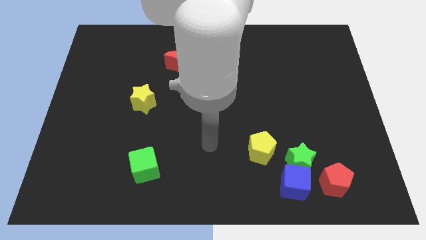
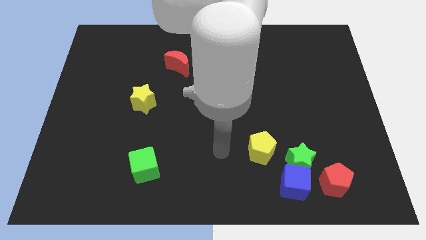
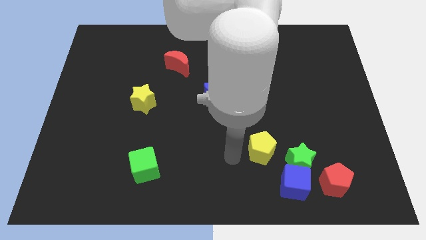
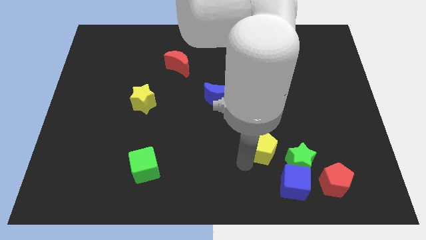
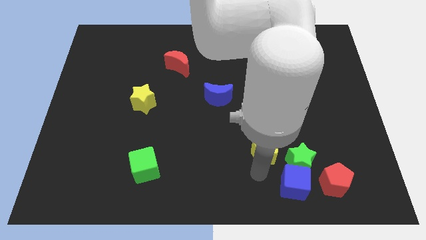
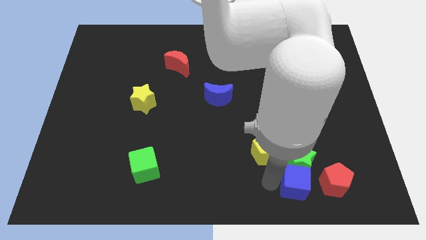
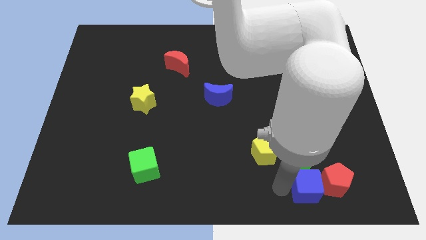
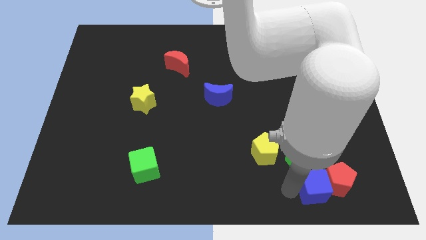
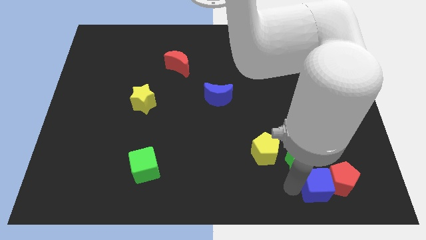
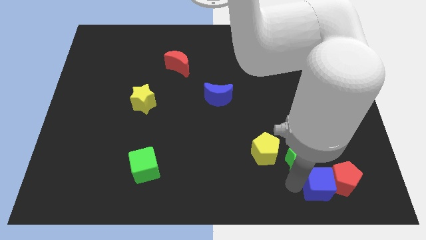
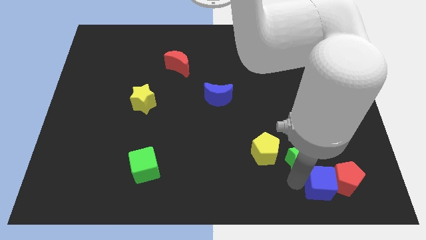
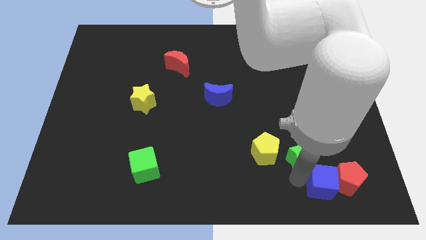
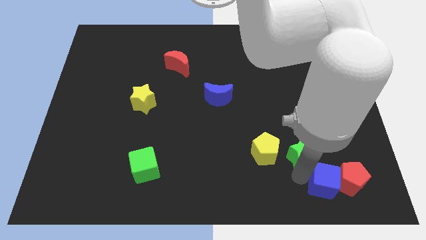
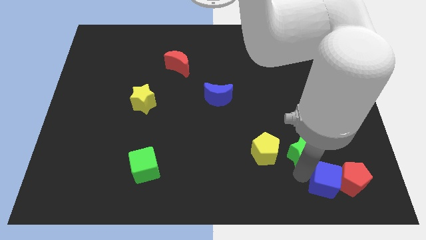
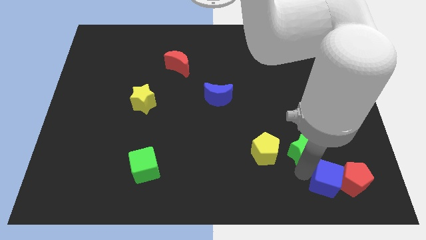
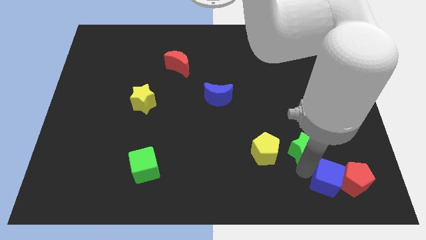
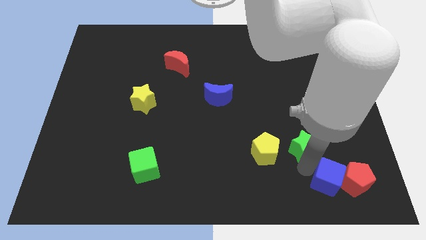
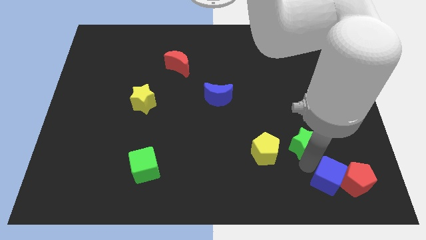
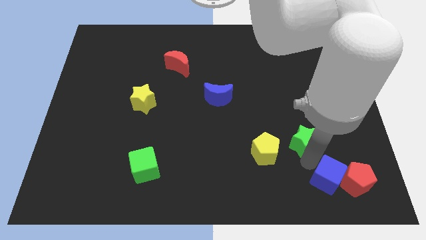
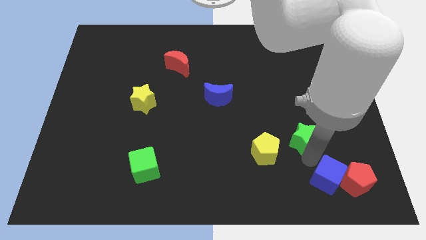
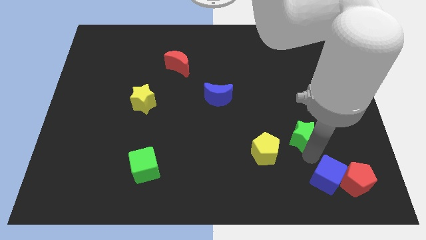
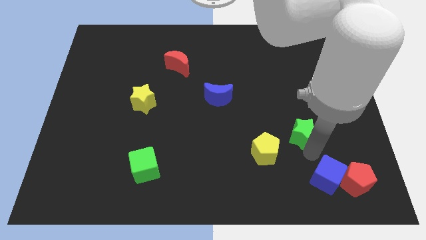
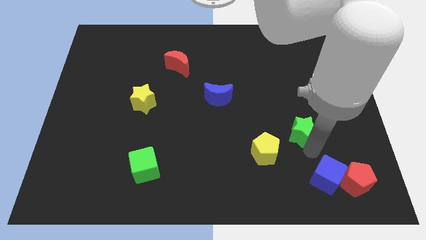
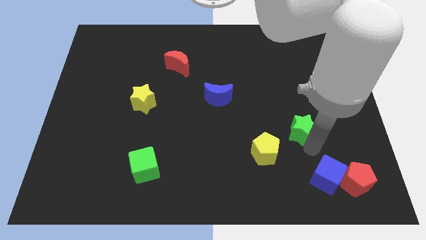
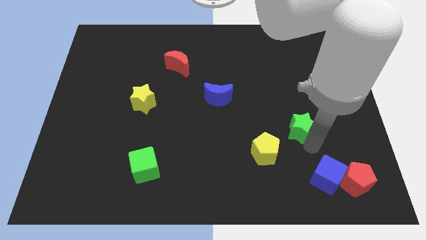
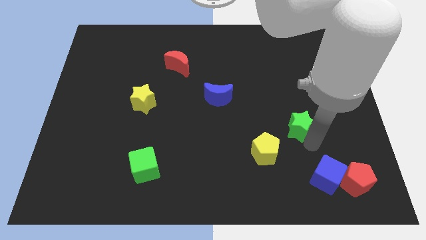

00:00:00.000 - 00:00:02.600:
separate the green star from the blue cube, red pentagon, and yellow pentagon

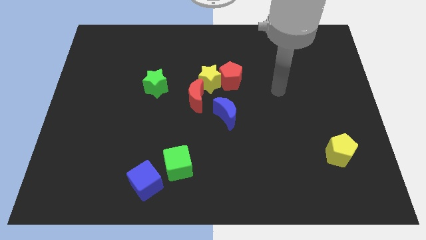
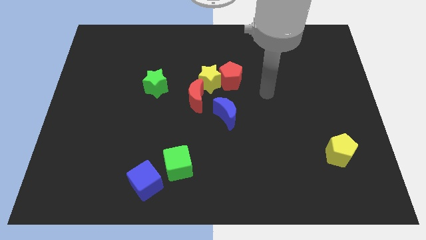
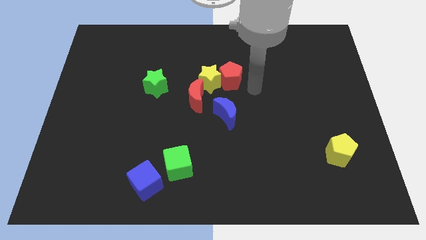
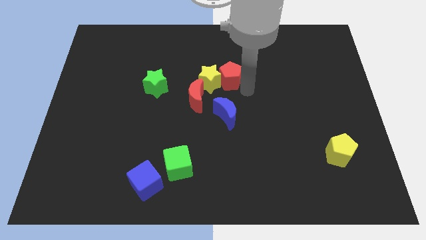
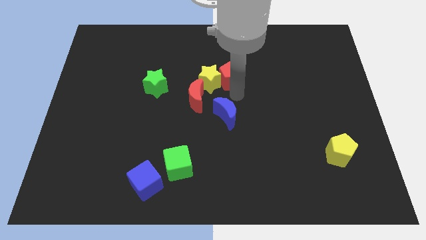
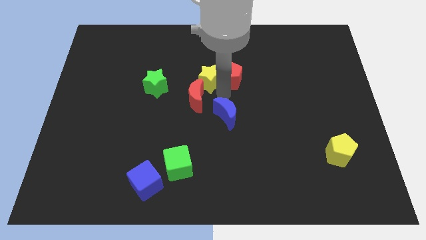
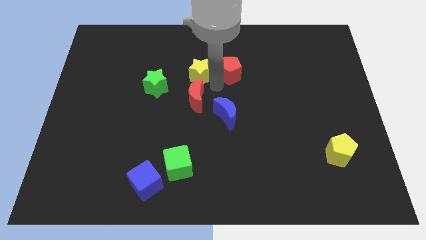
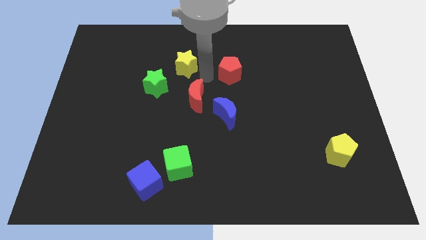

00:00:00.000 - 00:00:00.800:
move the red pentagon away from the yellow star

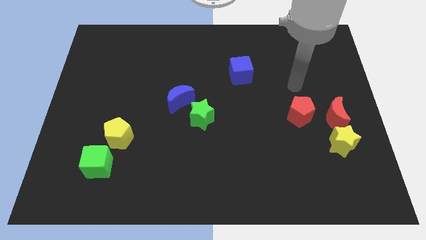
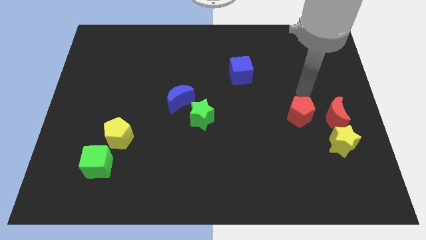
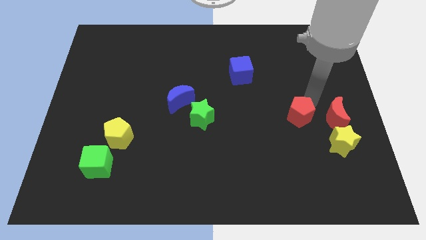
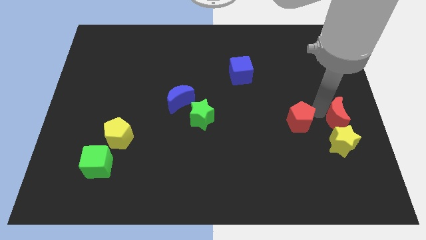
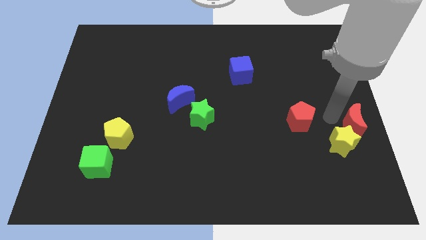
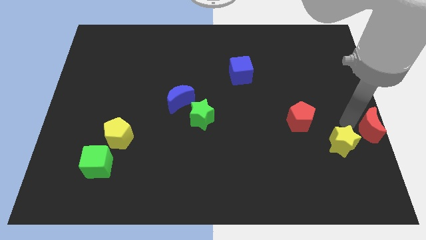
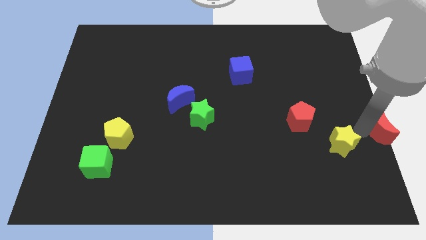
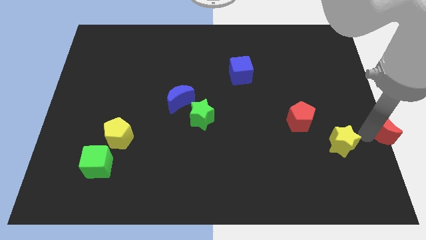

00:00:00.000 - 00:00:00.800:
separate the yellow star from the red moon

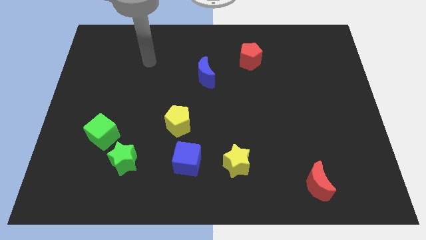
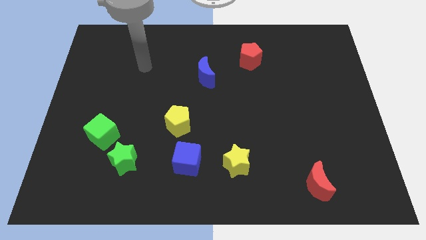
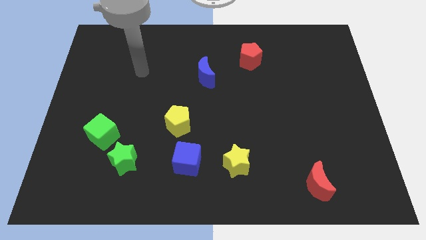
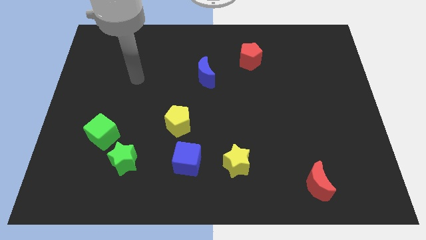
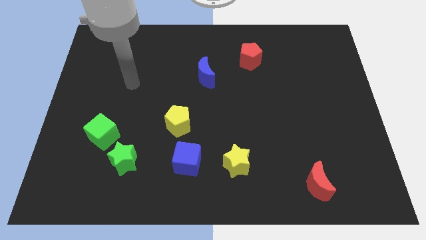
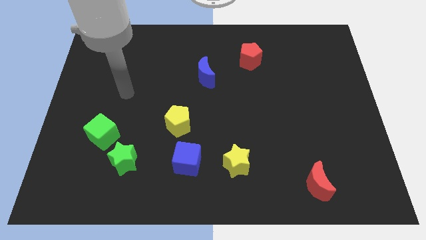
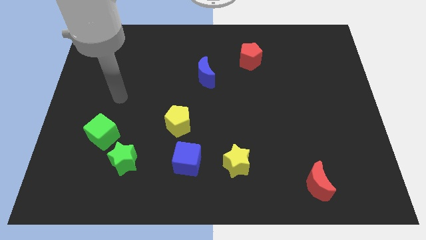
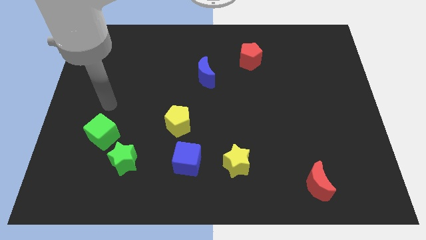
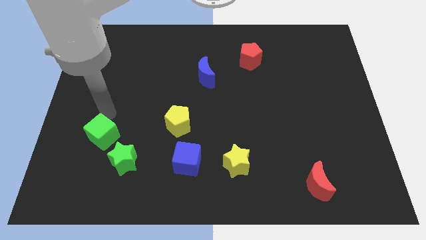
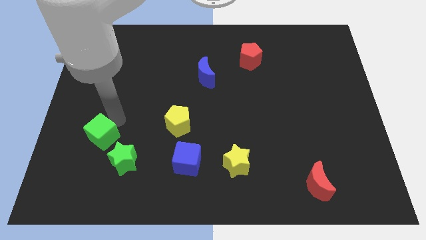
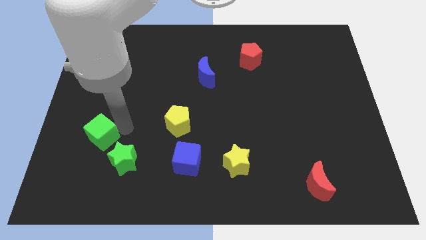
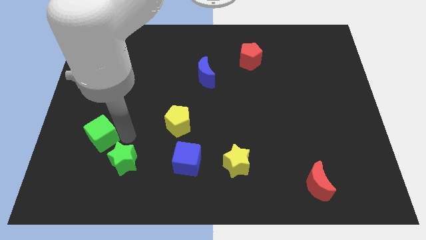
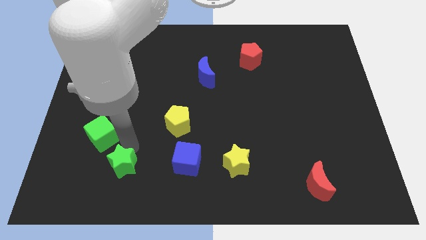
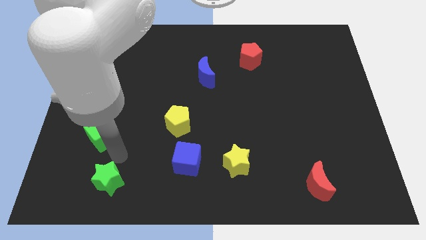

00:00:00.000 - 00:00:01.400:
separate the green cube from the green star

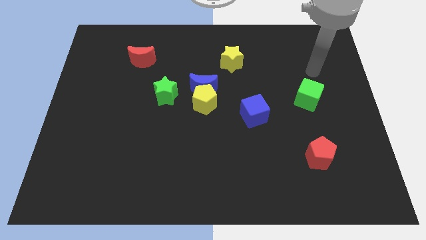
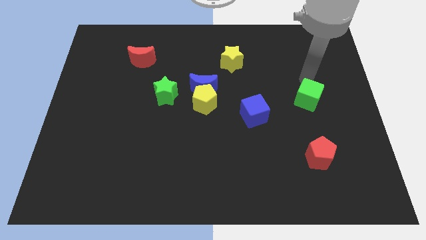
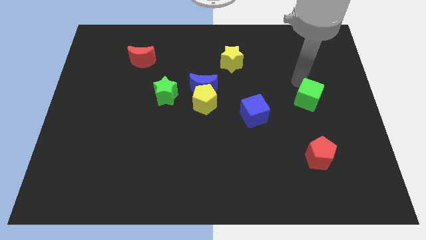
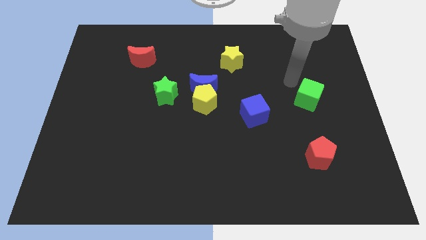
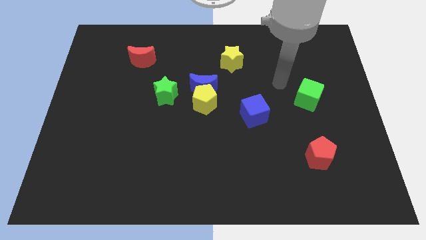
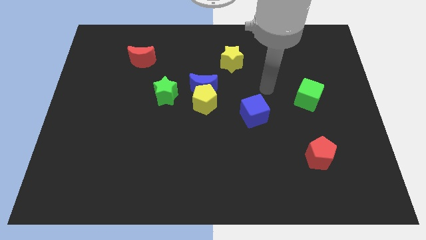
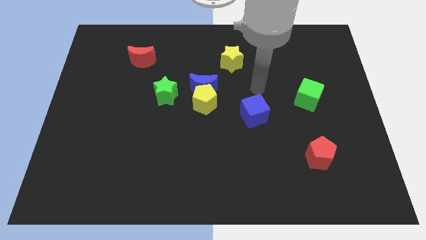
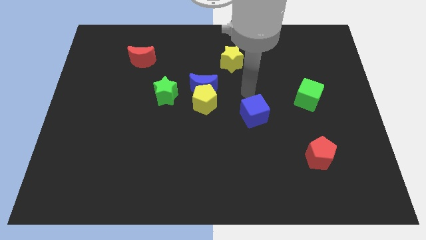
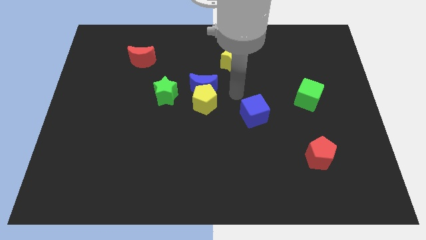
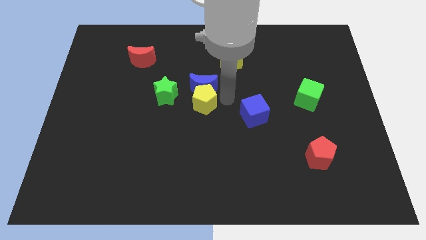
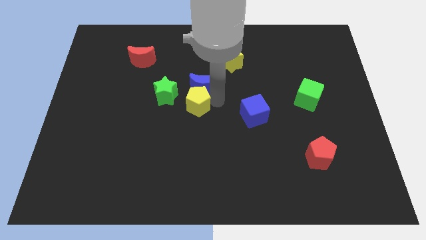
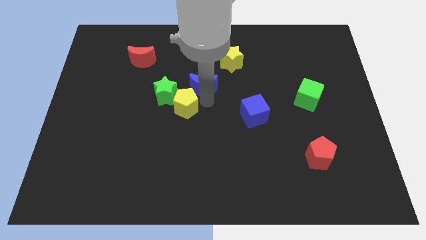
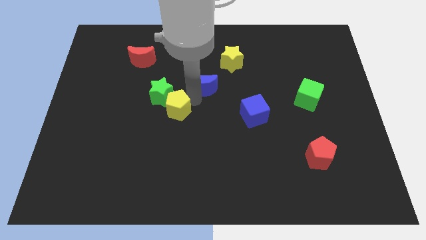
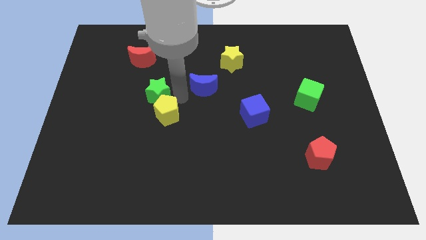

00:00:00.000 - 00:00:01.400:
pull the blue moon apart from the yellow pentagon and green star

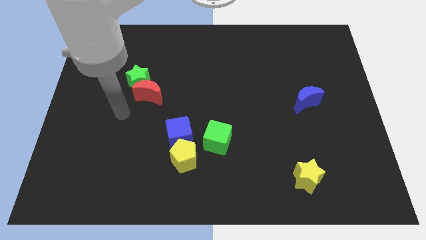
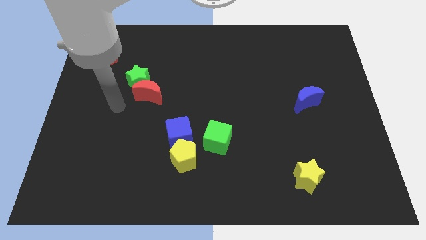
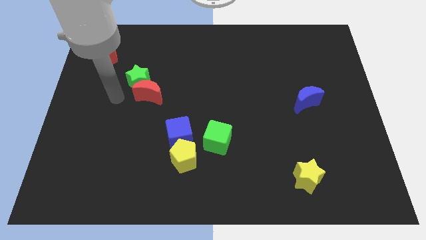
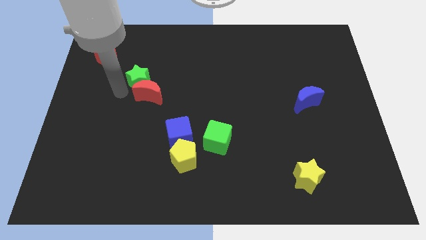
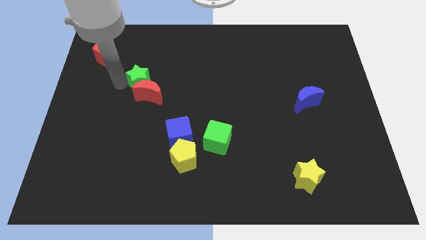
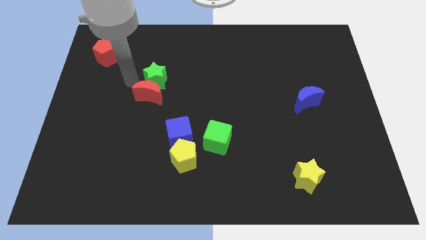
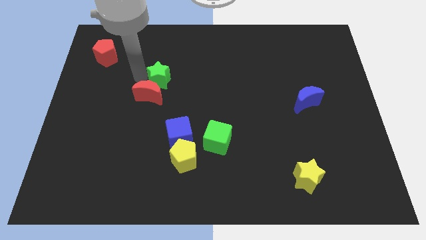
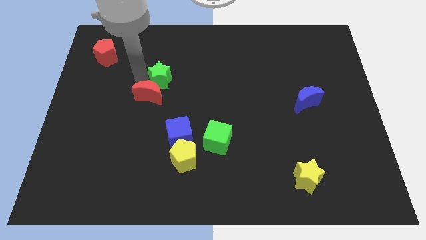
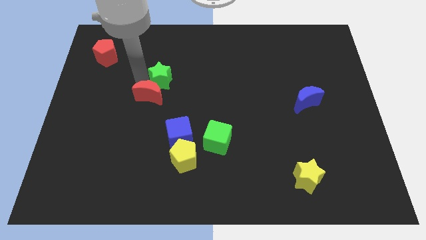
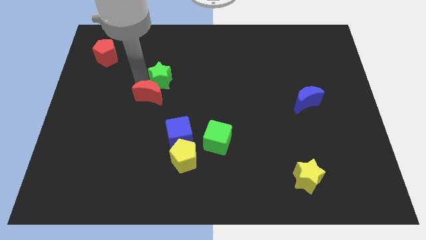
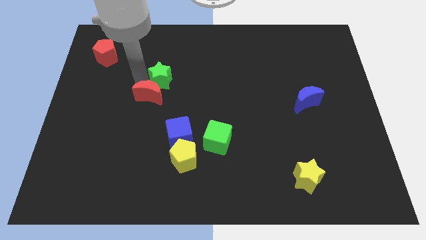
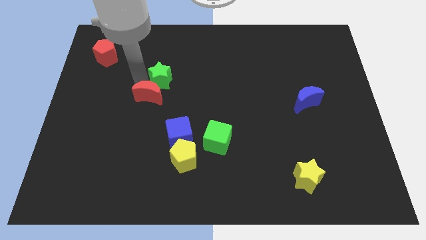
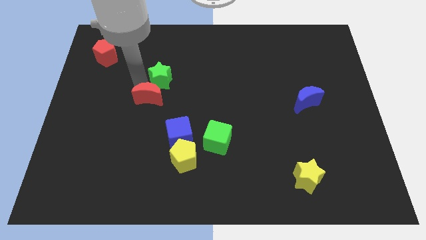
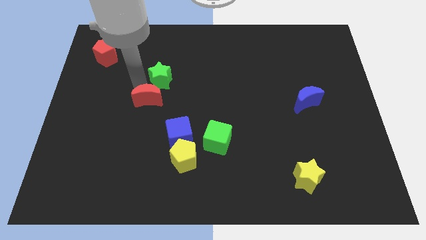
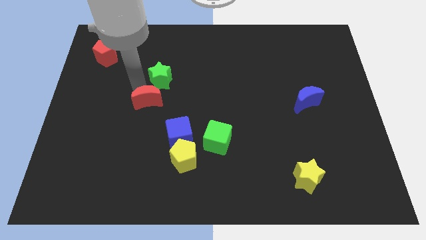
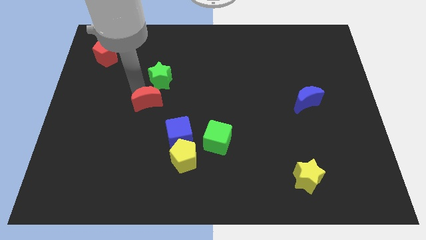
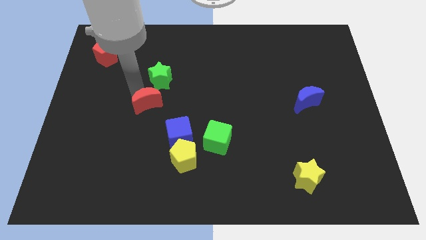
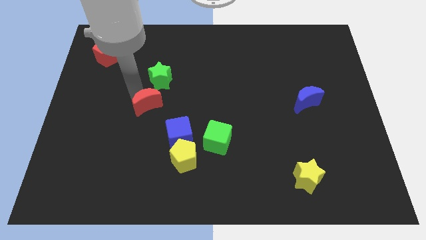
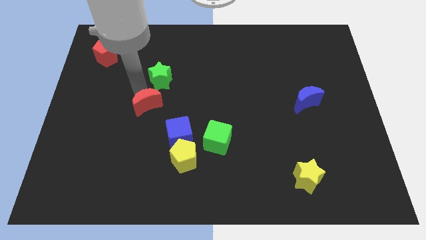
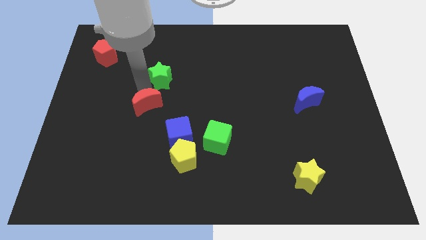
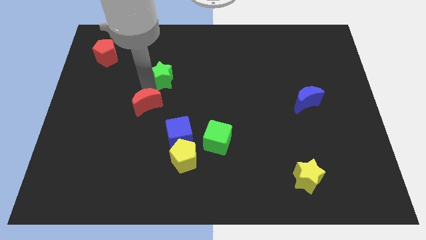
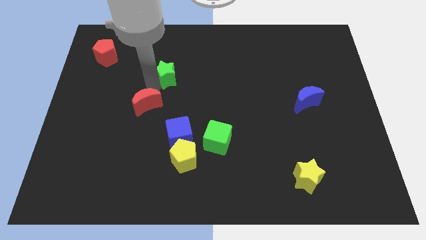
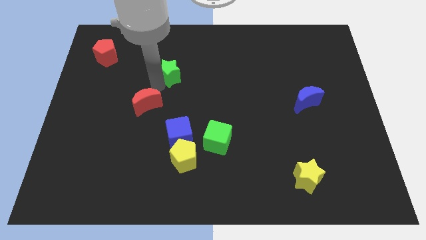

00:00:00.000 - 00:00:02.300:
pull the red moon apart from the green star
